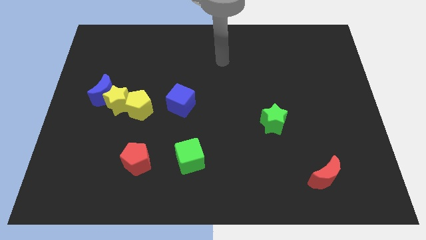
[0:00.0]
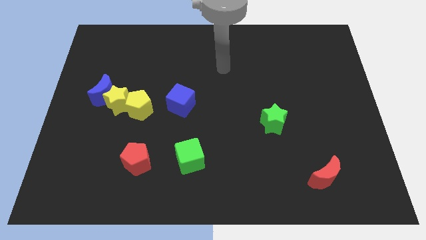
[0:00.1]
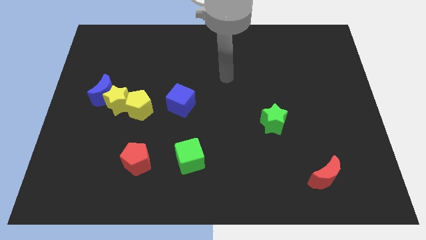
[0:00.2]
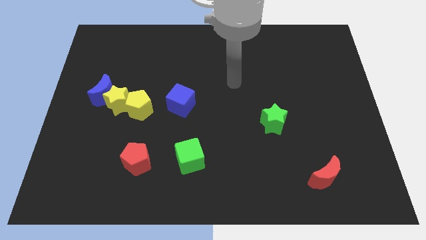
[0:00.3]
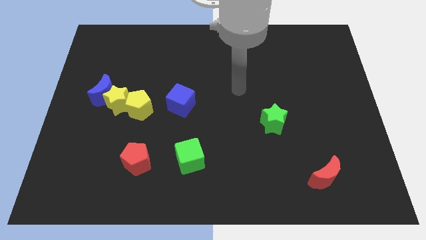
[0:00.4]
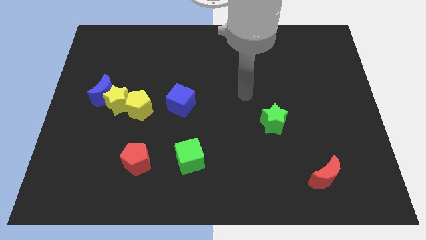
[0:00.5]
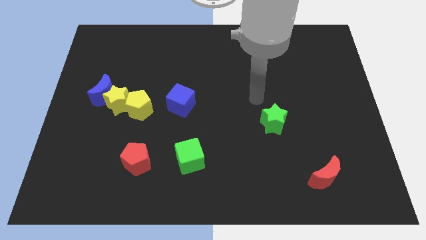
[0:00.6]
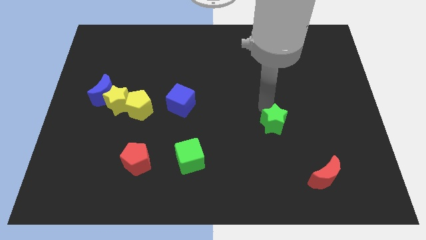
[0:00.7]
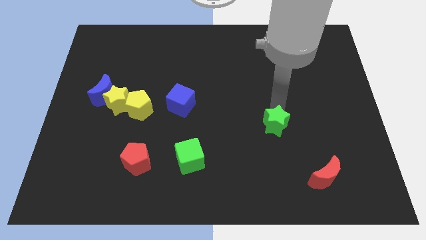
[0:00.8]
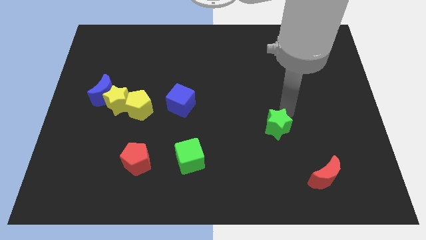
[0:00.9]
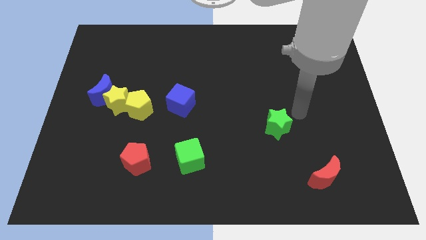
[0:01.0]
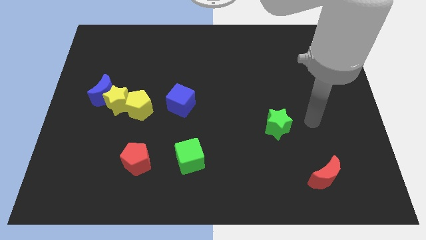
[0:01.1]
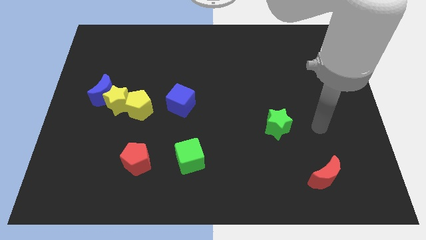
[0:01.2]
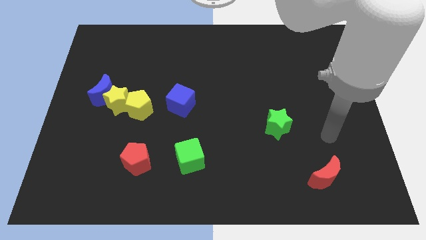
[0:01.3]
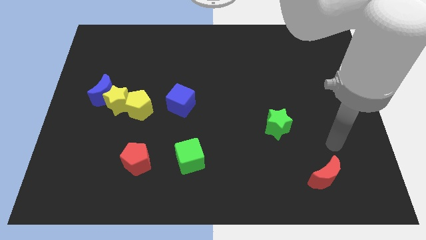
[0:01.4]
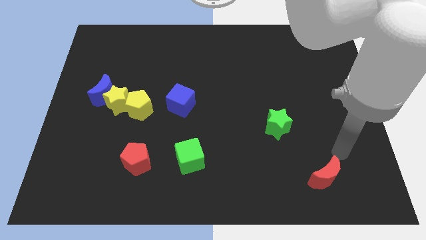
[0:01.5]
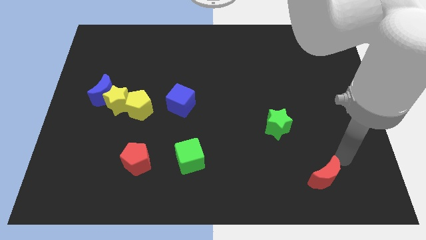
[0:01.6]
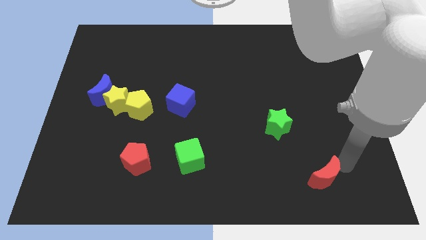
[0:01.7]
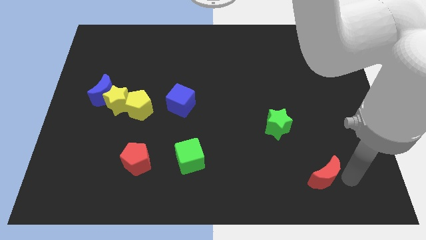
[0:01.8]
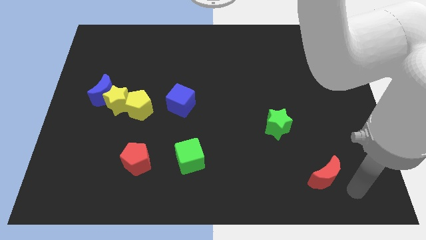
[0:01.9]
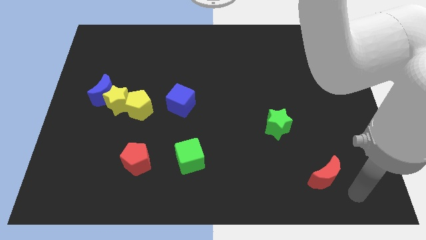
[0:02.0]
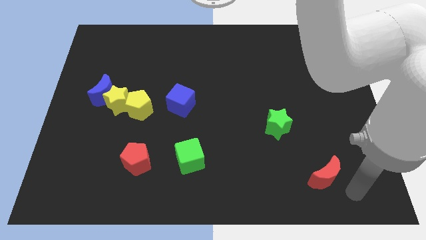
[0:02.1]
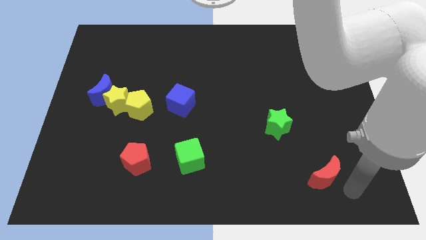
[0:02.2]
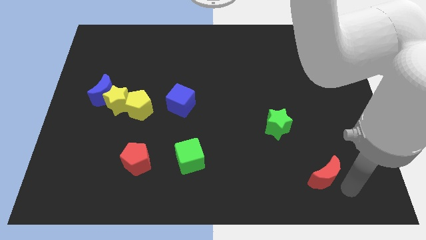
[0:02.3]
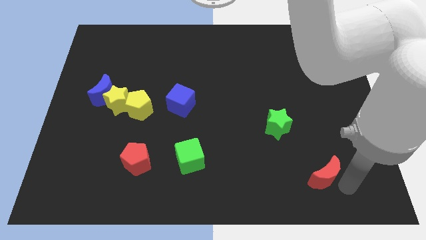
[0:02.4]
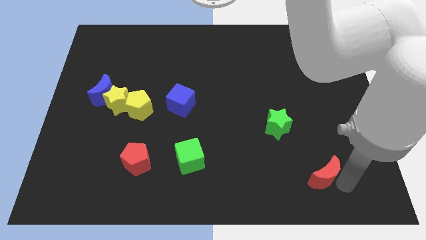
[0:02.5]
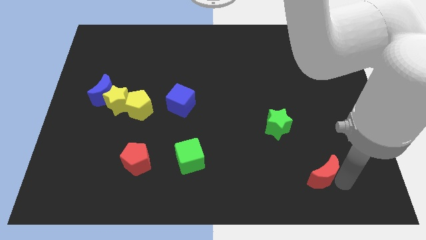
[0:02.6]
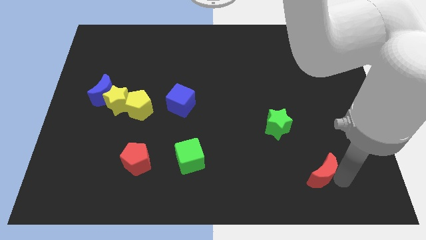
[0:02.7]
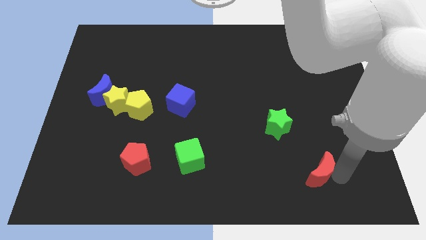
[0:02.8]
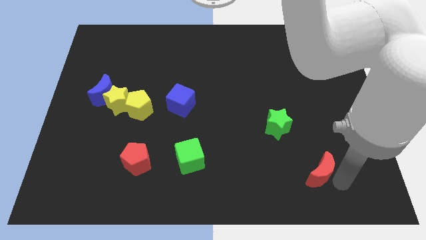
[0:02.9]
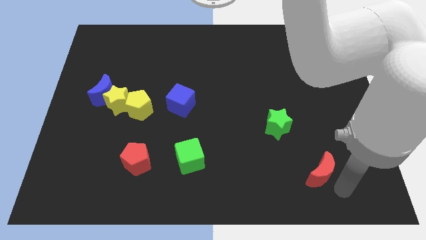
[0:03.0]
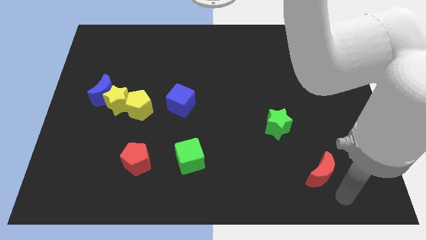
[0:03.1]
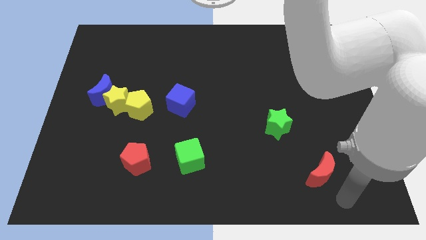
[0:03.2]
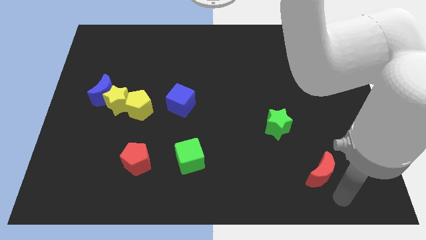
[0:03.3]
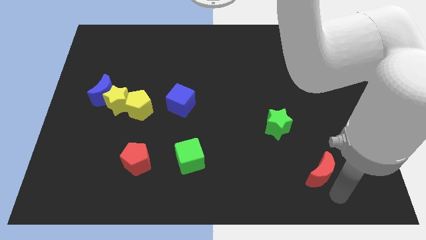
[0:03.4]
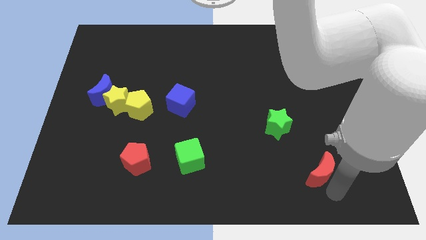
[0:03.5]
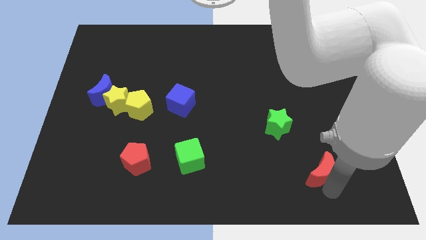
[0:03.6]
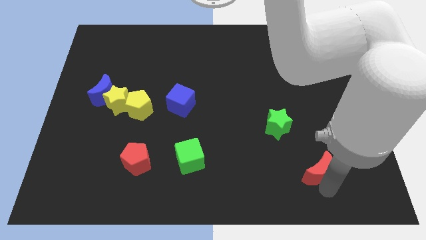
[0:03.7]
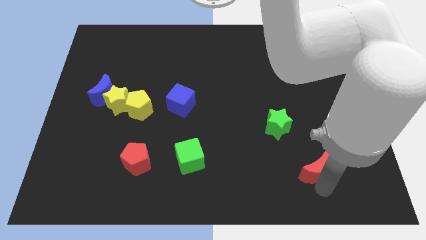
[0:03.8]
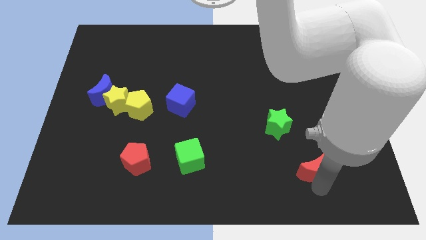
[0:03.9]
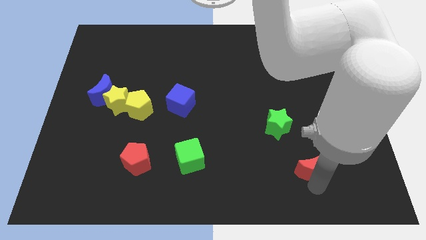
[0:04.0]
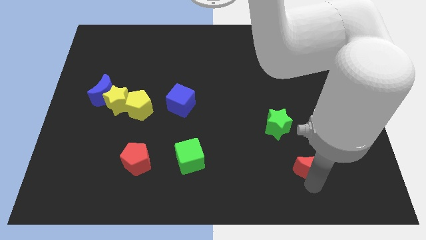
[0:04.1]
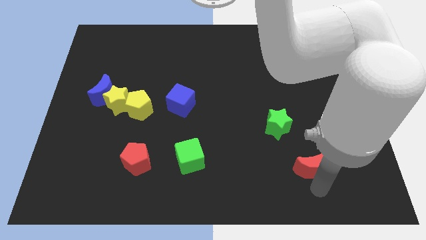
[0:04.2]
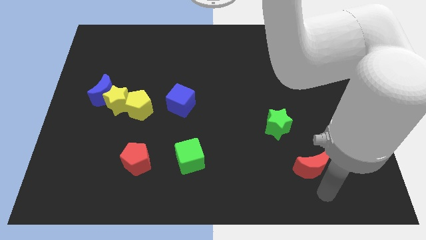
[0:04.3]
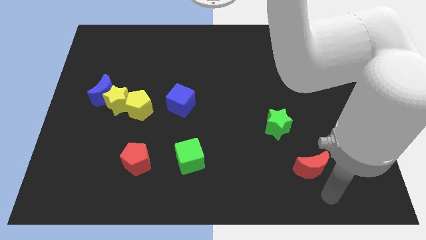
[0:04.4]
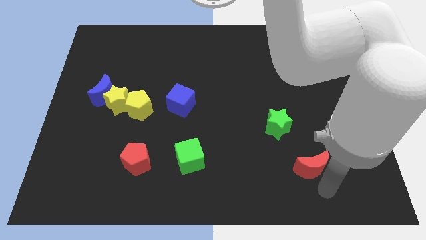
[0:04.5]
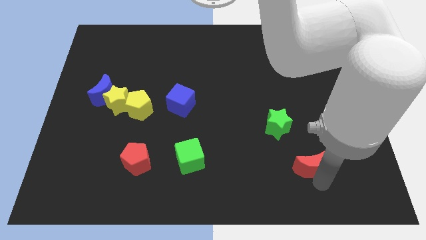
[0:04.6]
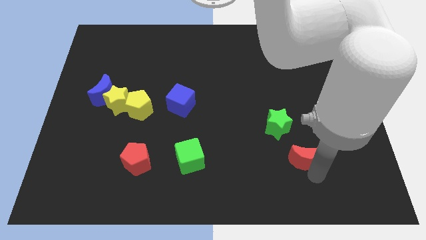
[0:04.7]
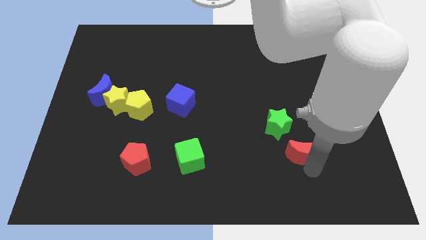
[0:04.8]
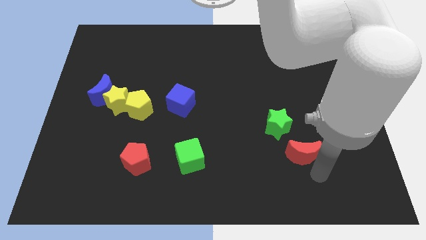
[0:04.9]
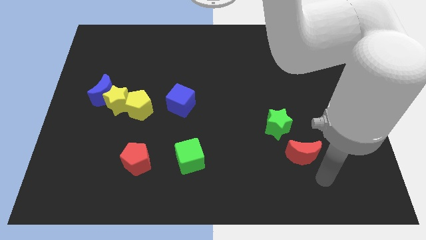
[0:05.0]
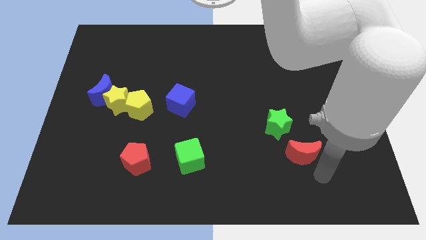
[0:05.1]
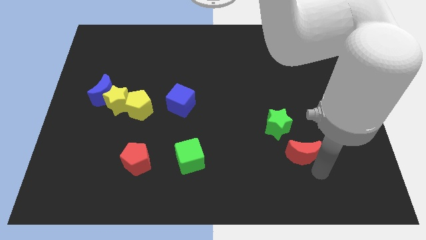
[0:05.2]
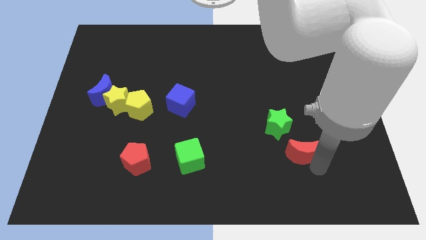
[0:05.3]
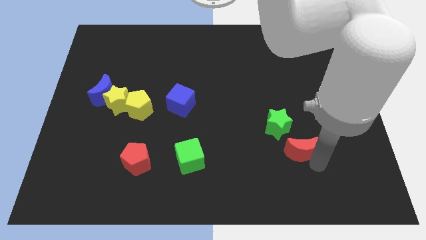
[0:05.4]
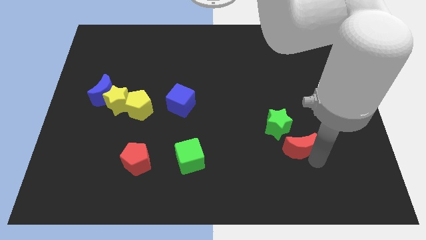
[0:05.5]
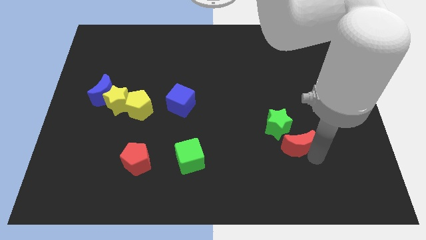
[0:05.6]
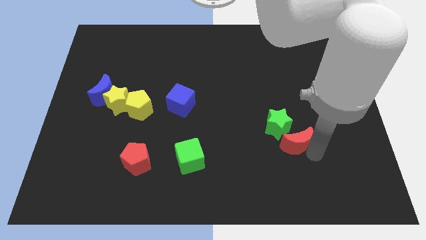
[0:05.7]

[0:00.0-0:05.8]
move the red moon to the green star
